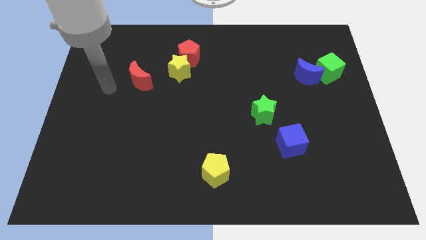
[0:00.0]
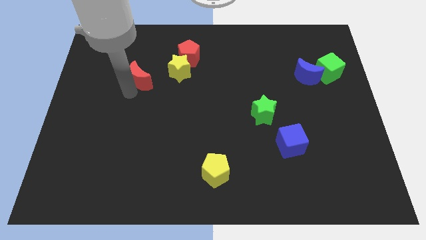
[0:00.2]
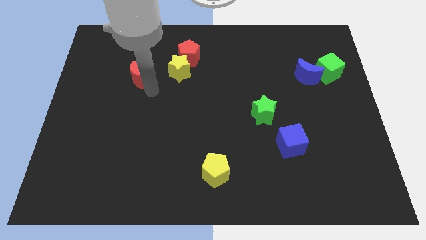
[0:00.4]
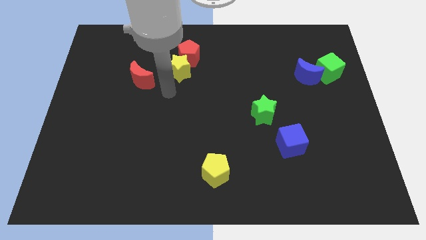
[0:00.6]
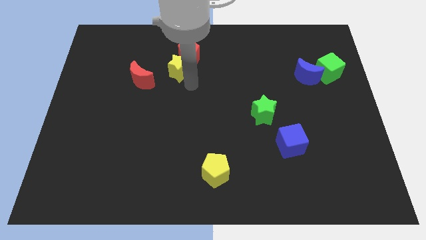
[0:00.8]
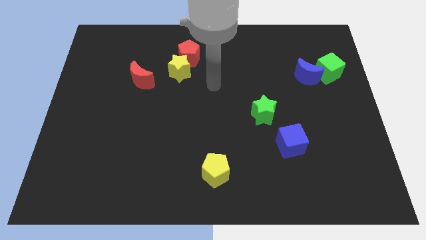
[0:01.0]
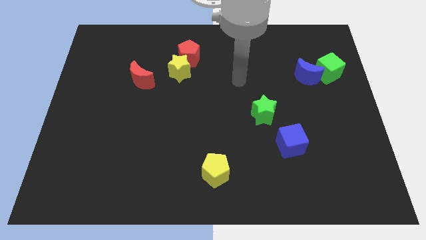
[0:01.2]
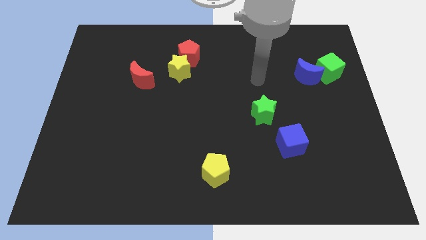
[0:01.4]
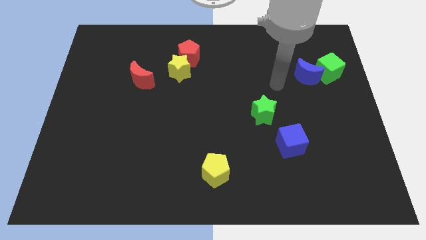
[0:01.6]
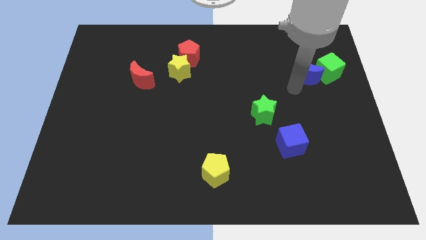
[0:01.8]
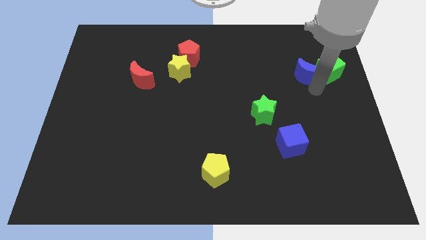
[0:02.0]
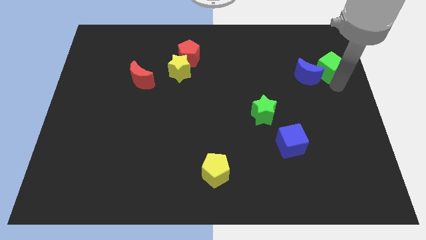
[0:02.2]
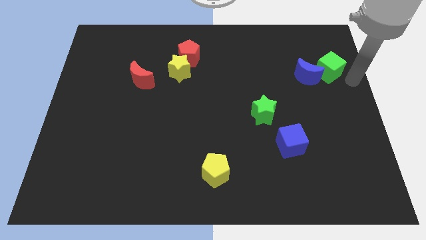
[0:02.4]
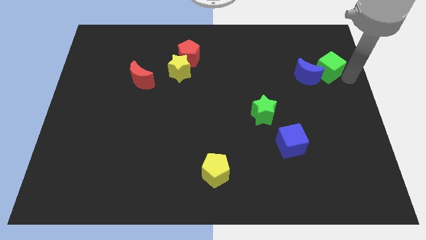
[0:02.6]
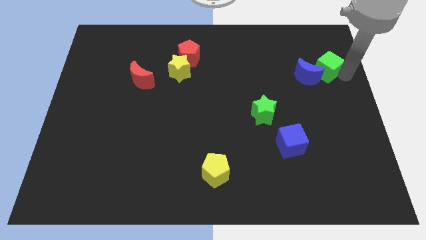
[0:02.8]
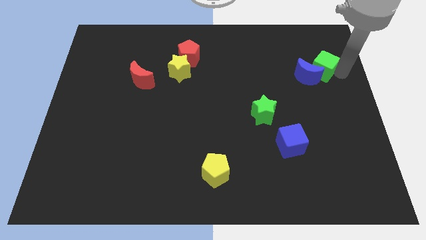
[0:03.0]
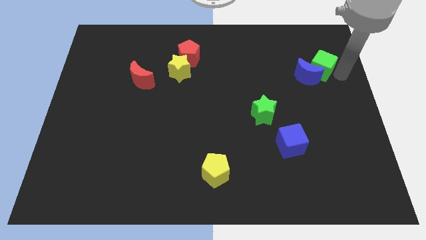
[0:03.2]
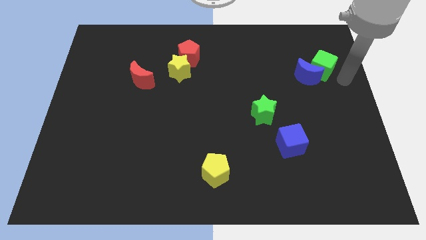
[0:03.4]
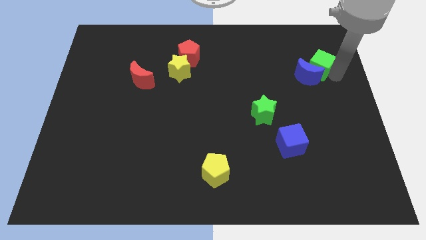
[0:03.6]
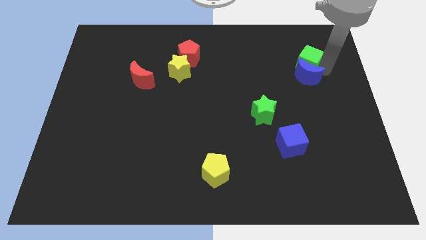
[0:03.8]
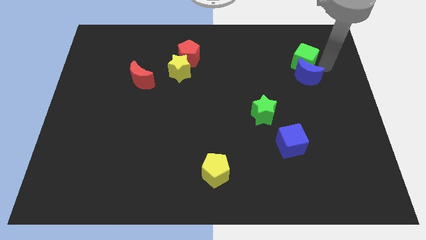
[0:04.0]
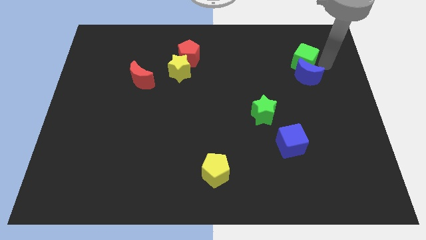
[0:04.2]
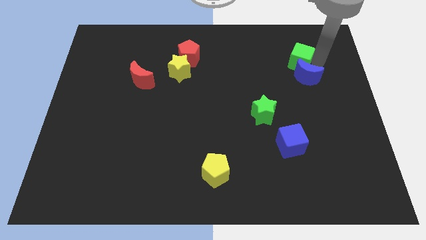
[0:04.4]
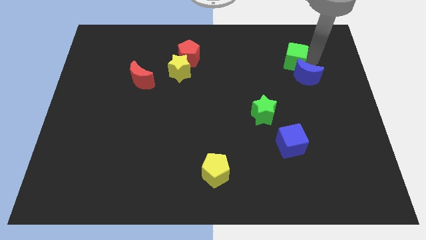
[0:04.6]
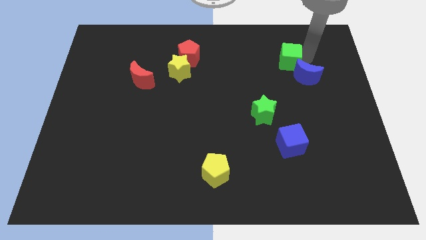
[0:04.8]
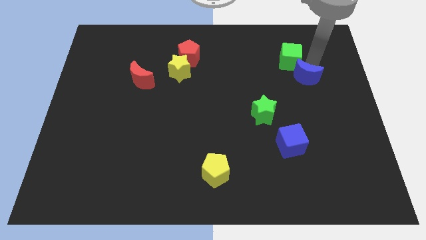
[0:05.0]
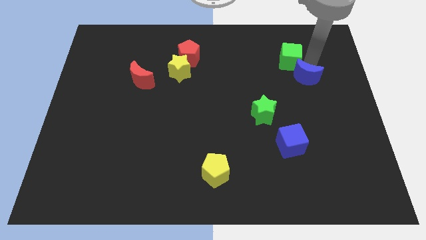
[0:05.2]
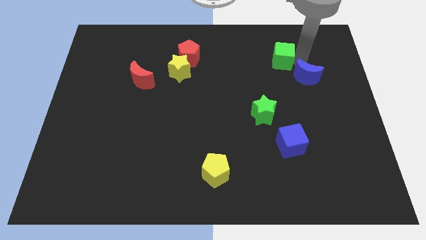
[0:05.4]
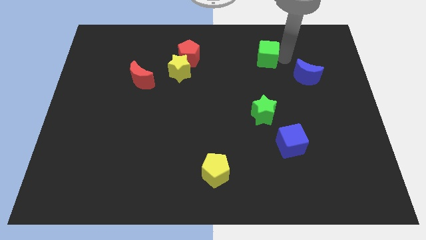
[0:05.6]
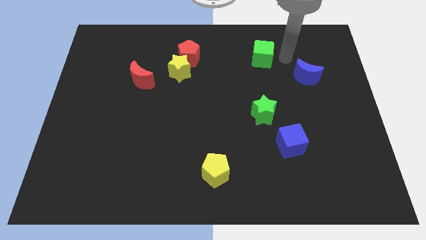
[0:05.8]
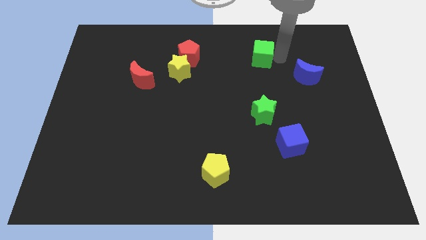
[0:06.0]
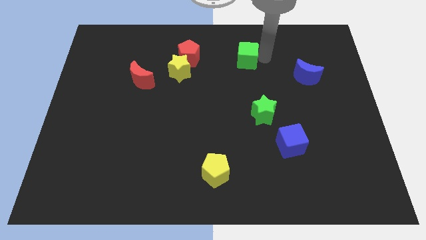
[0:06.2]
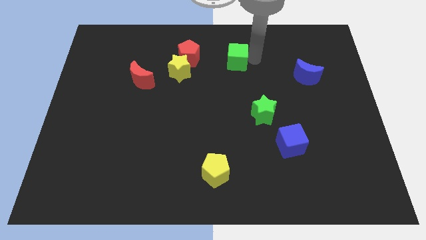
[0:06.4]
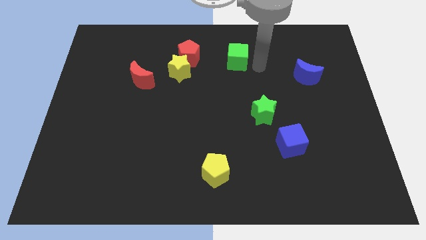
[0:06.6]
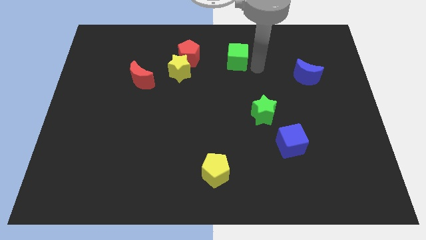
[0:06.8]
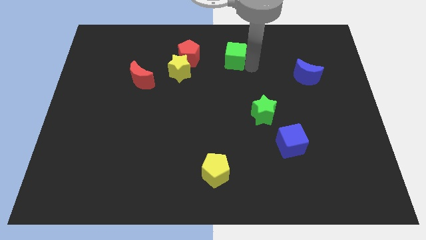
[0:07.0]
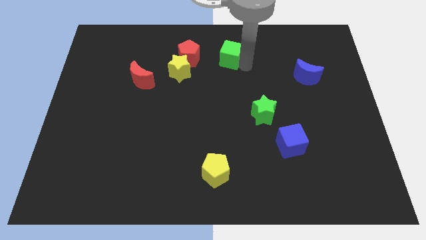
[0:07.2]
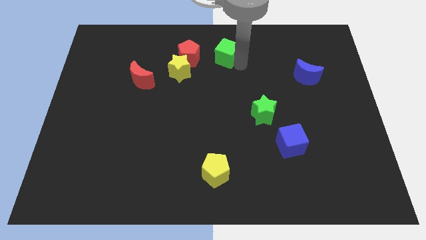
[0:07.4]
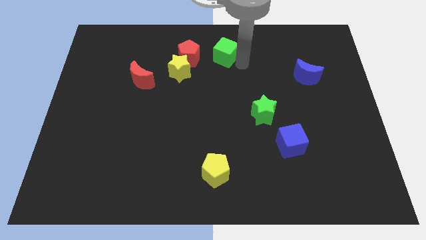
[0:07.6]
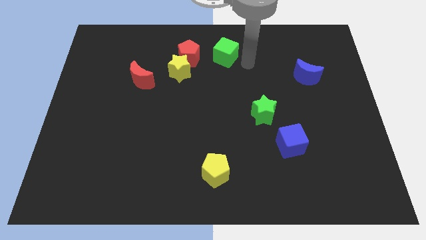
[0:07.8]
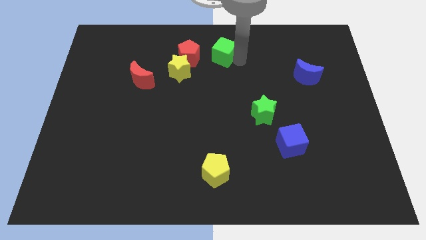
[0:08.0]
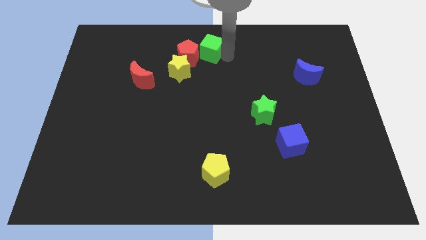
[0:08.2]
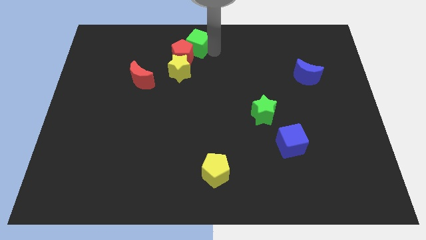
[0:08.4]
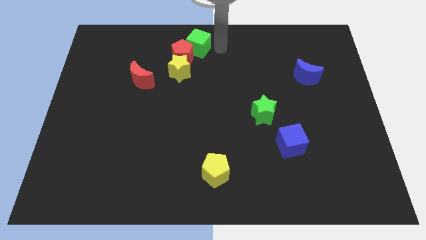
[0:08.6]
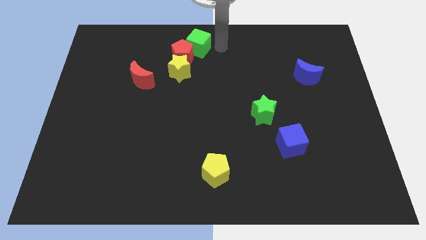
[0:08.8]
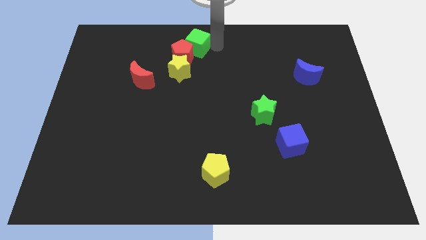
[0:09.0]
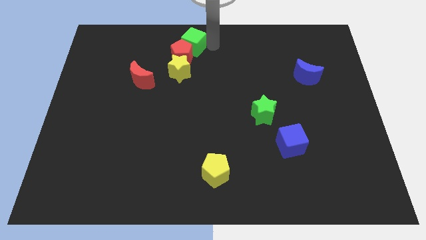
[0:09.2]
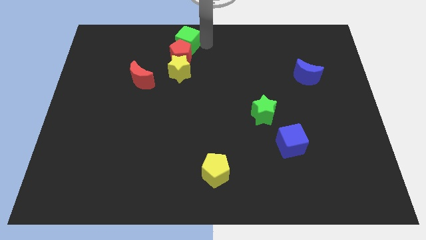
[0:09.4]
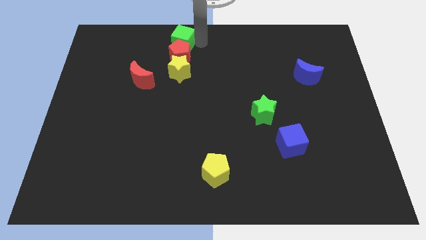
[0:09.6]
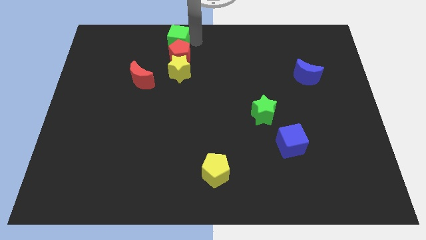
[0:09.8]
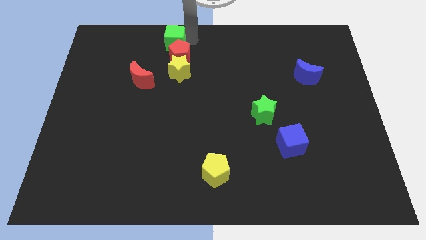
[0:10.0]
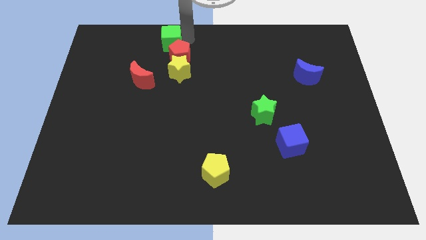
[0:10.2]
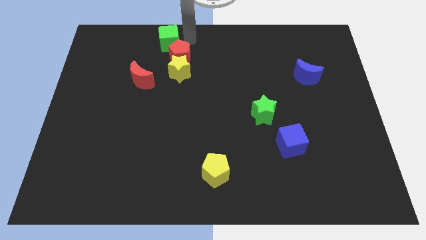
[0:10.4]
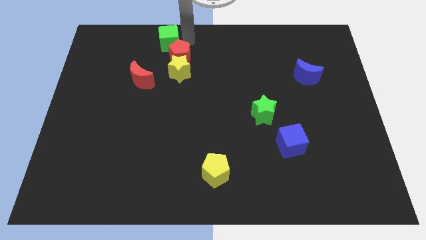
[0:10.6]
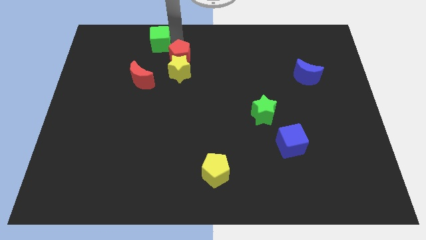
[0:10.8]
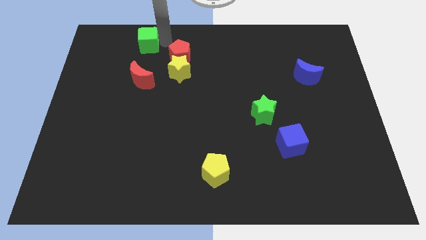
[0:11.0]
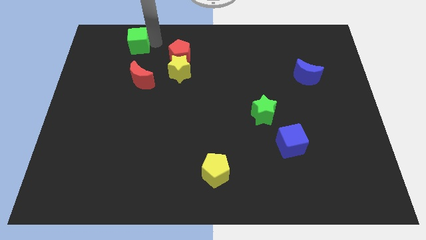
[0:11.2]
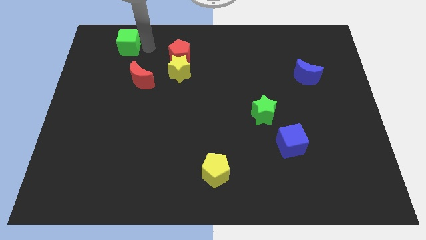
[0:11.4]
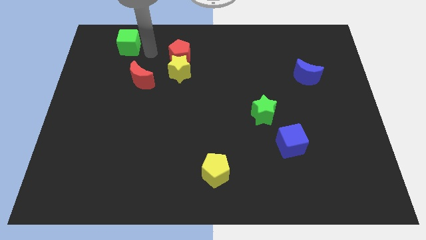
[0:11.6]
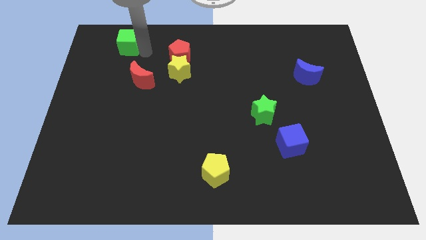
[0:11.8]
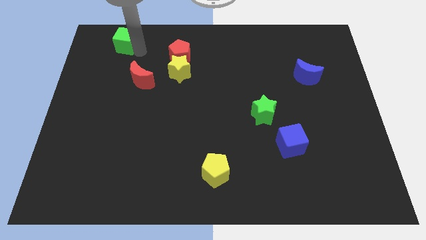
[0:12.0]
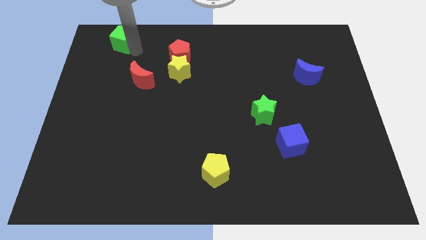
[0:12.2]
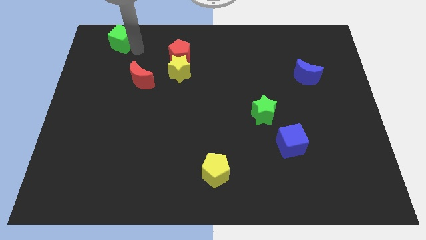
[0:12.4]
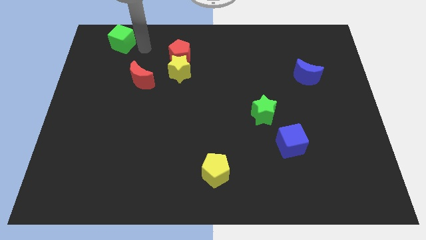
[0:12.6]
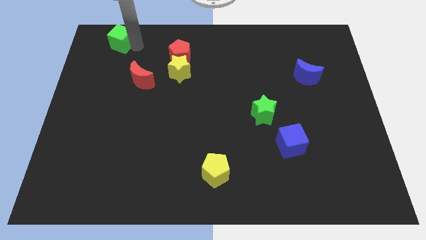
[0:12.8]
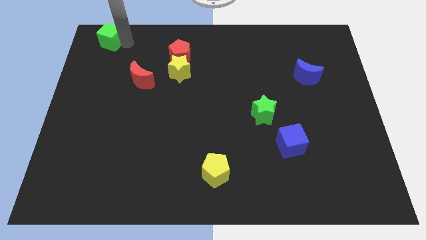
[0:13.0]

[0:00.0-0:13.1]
put the green cube to the upper left corner
